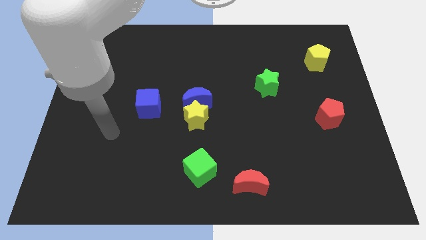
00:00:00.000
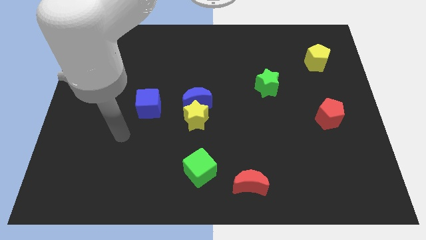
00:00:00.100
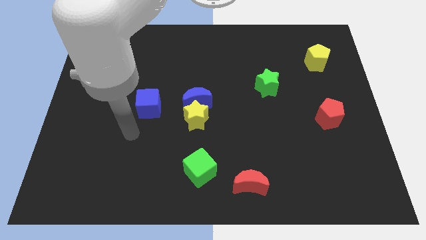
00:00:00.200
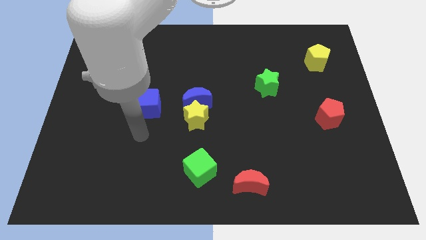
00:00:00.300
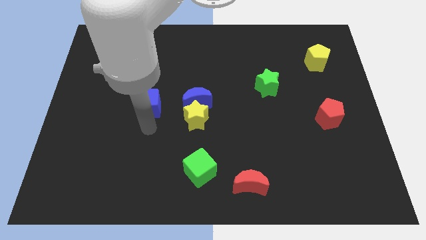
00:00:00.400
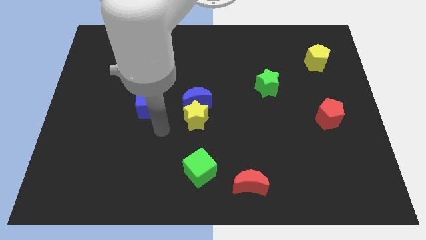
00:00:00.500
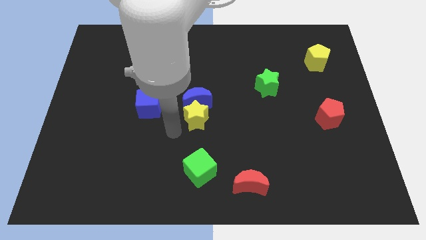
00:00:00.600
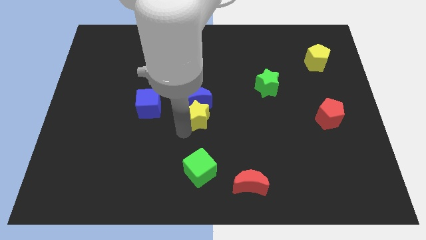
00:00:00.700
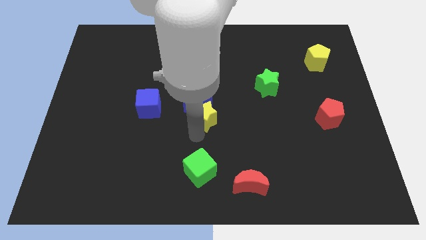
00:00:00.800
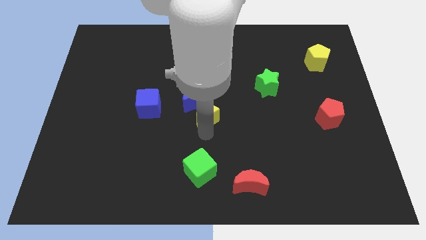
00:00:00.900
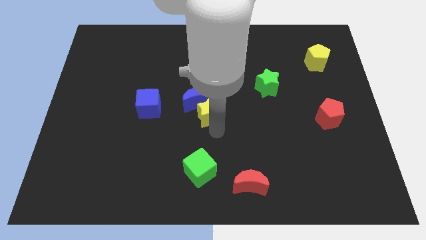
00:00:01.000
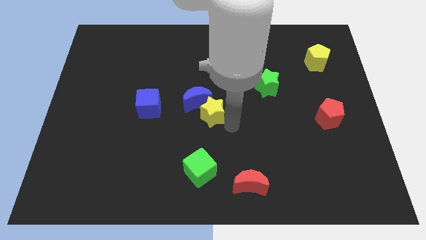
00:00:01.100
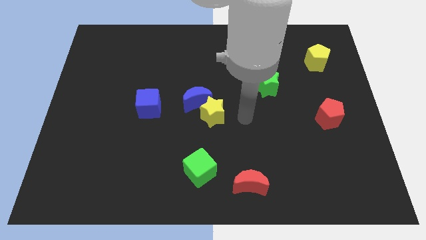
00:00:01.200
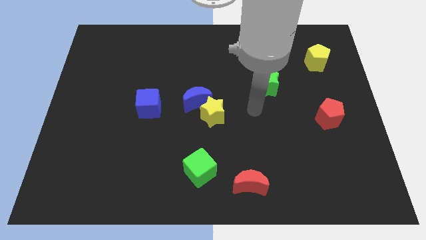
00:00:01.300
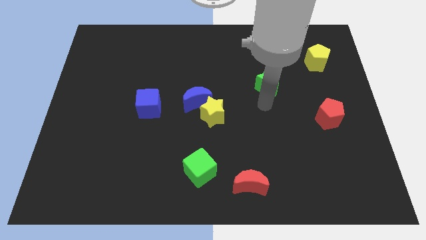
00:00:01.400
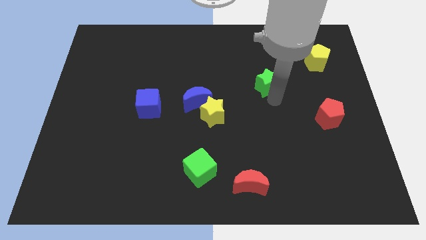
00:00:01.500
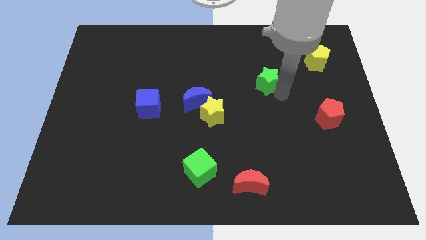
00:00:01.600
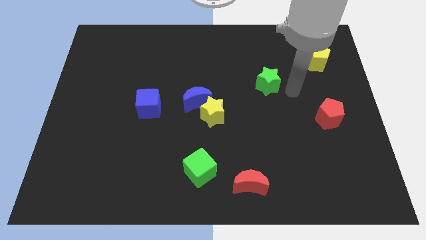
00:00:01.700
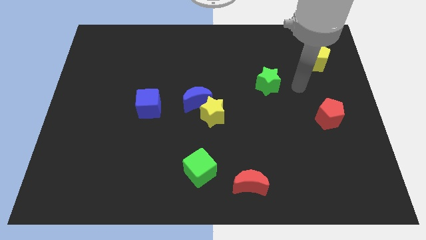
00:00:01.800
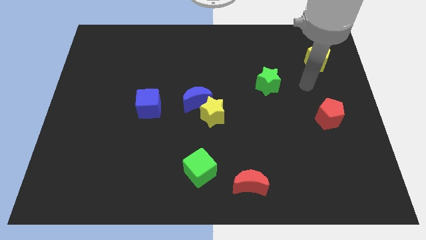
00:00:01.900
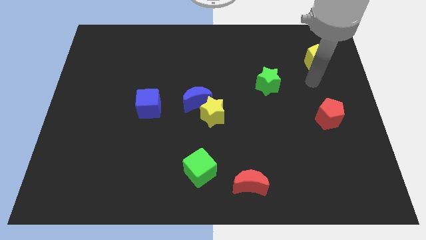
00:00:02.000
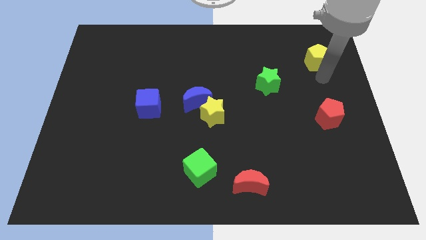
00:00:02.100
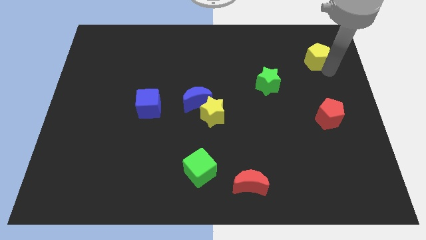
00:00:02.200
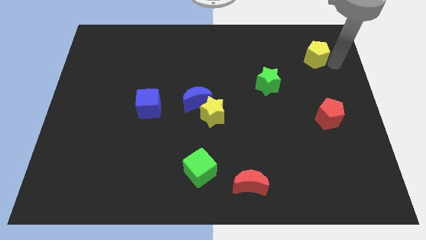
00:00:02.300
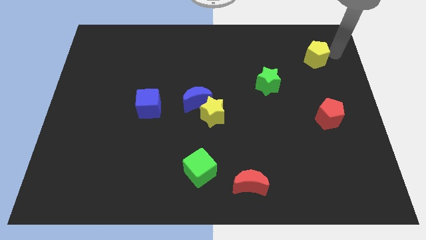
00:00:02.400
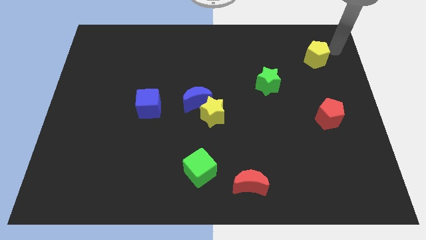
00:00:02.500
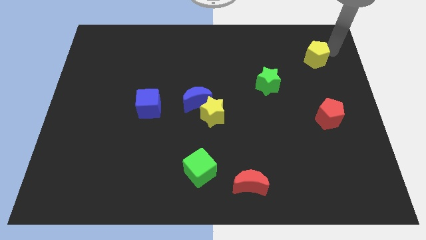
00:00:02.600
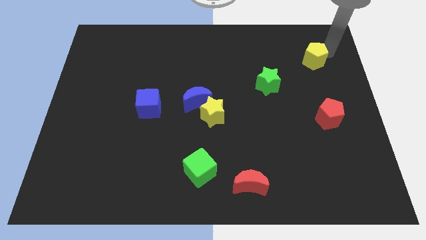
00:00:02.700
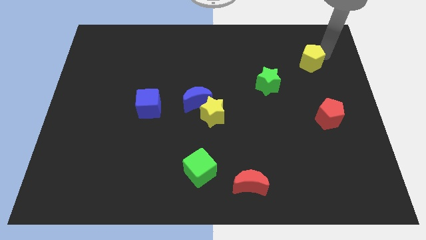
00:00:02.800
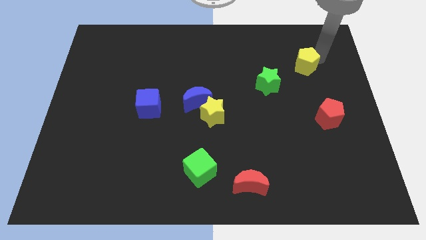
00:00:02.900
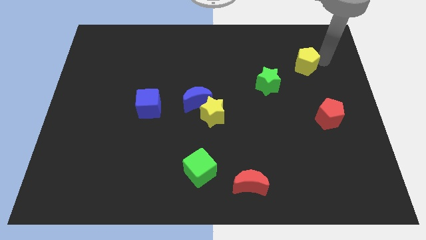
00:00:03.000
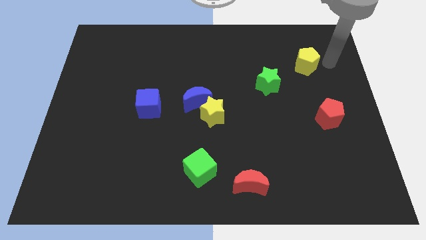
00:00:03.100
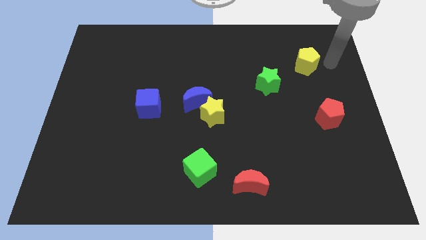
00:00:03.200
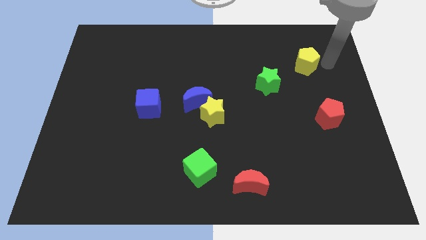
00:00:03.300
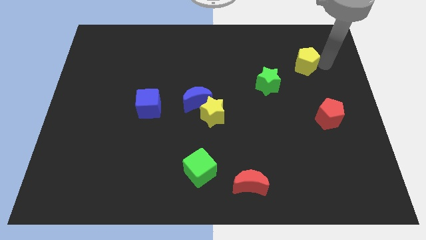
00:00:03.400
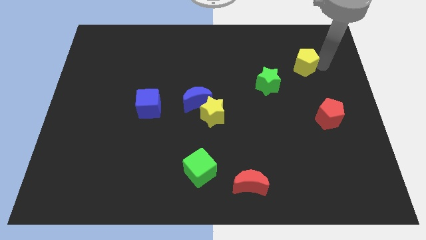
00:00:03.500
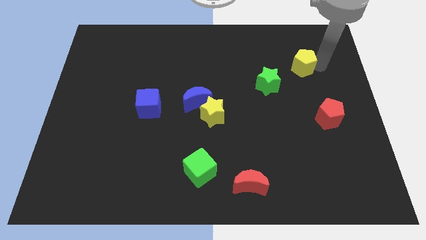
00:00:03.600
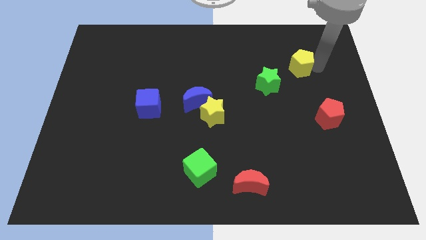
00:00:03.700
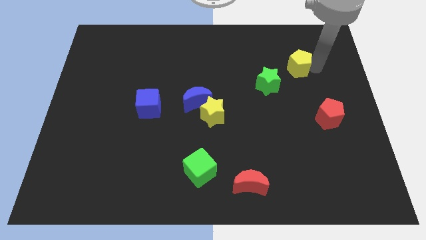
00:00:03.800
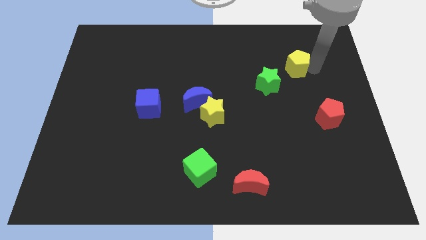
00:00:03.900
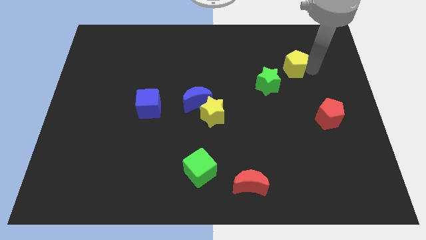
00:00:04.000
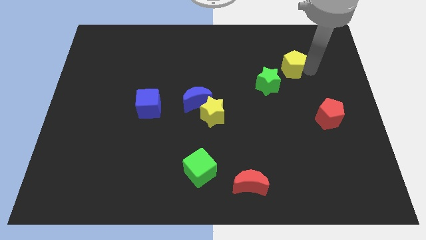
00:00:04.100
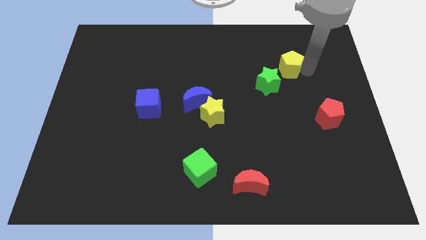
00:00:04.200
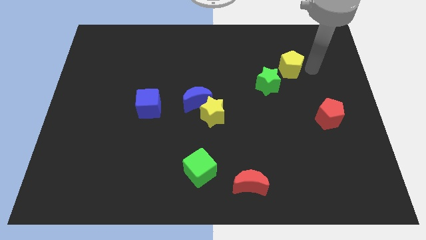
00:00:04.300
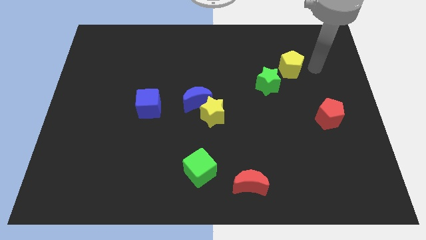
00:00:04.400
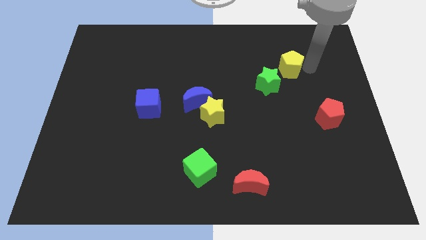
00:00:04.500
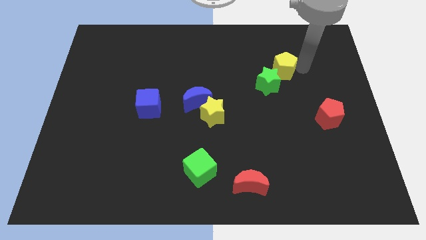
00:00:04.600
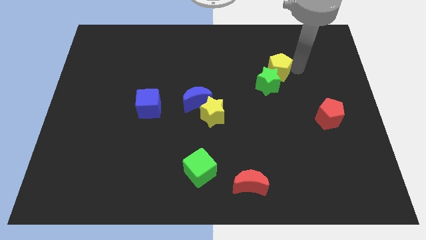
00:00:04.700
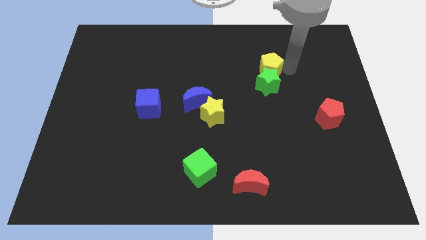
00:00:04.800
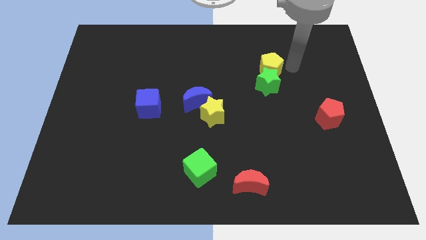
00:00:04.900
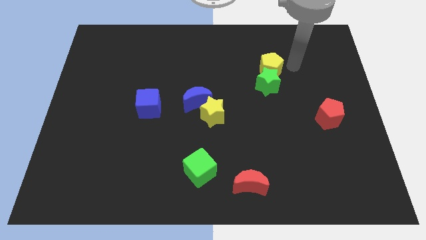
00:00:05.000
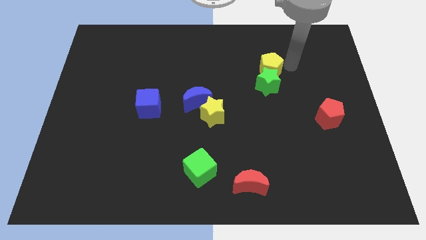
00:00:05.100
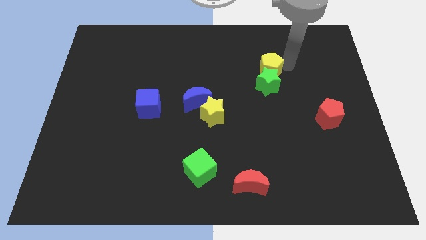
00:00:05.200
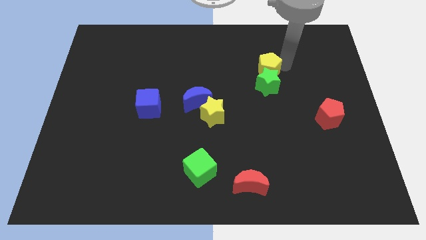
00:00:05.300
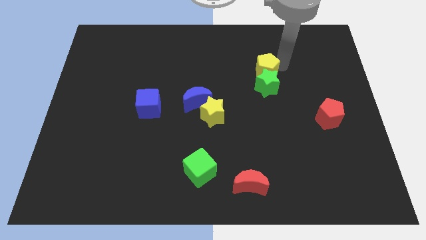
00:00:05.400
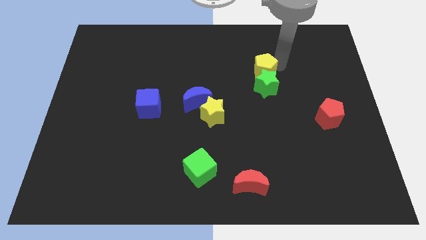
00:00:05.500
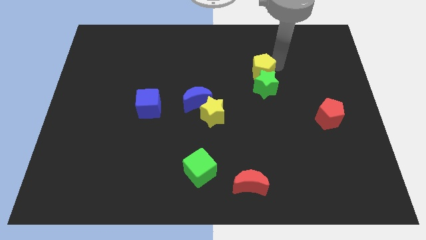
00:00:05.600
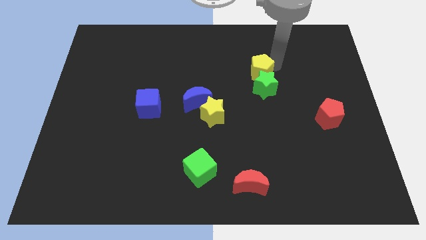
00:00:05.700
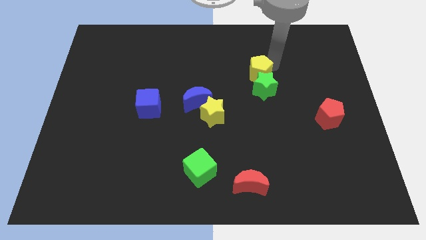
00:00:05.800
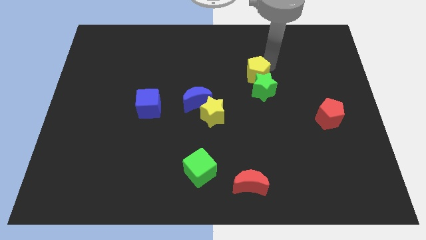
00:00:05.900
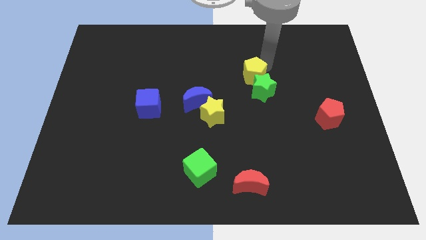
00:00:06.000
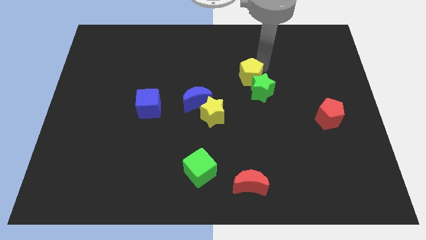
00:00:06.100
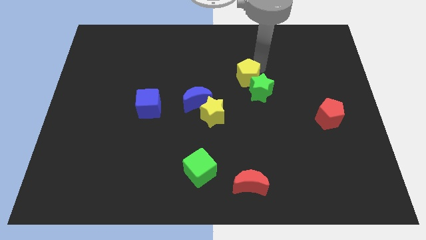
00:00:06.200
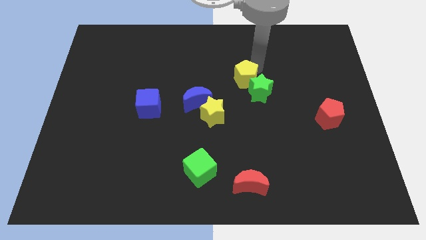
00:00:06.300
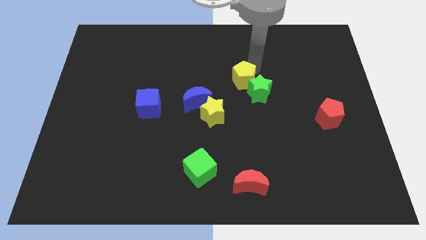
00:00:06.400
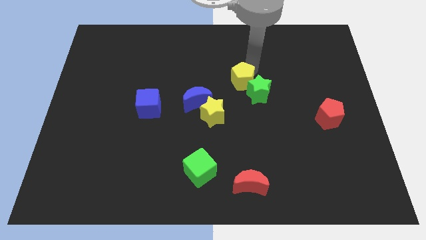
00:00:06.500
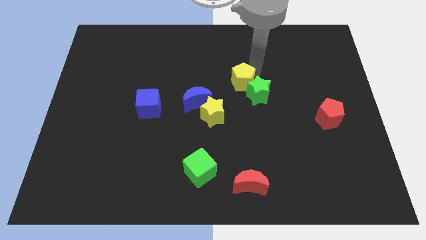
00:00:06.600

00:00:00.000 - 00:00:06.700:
slide the yellow pentagon to the top right side of the yellow star

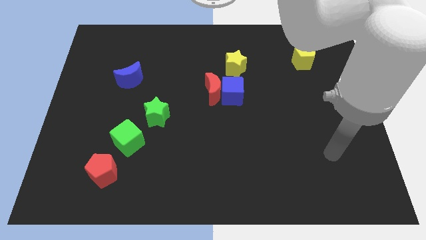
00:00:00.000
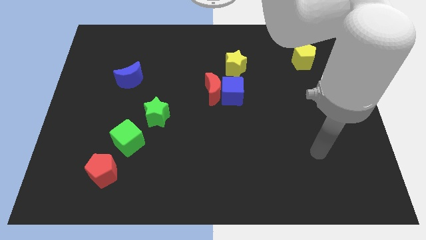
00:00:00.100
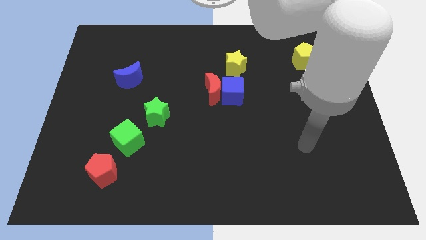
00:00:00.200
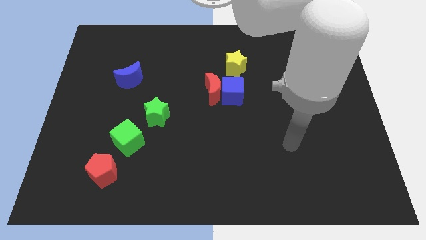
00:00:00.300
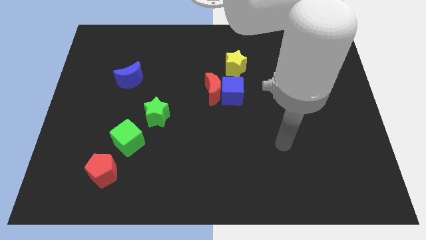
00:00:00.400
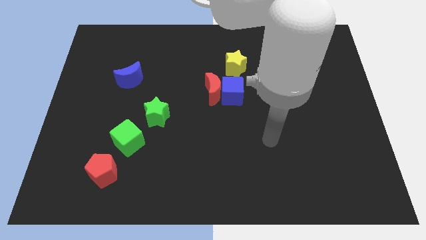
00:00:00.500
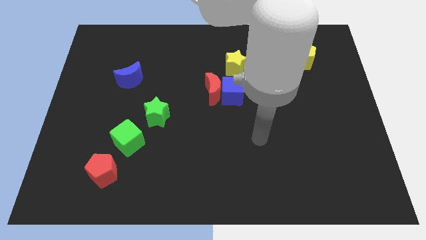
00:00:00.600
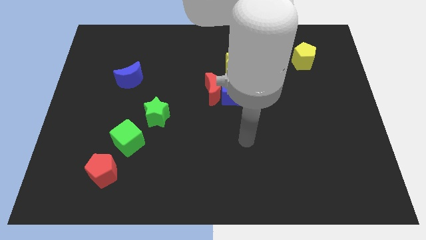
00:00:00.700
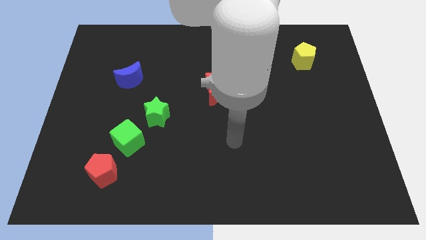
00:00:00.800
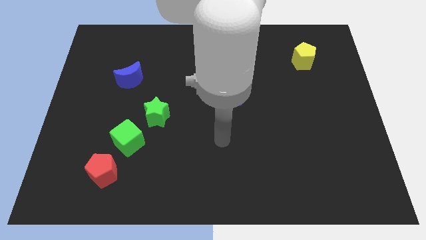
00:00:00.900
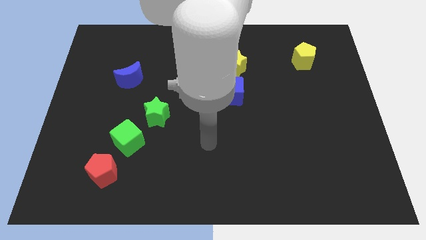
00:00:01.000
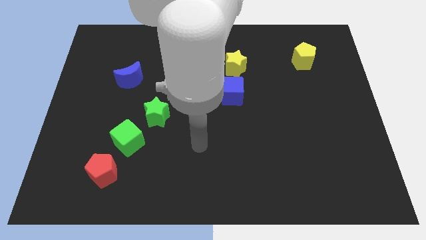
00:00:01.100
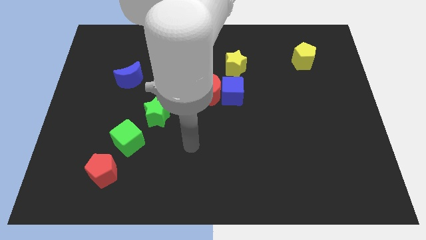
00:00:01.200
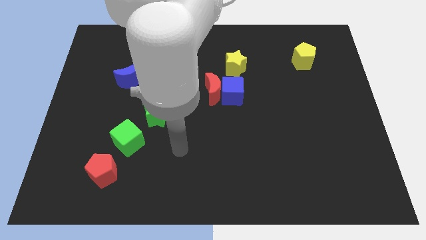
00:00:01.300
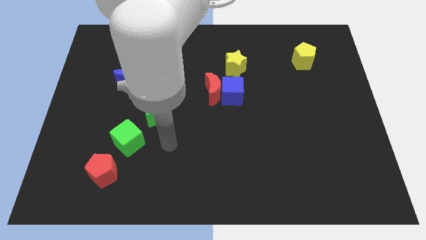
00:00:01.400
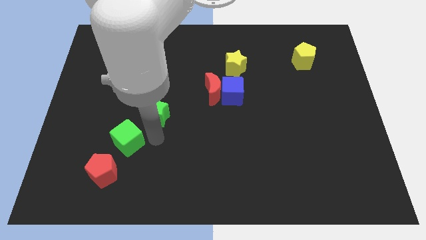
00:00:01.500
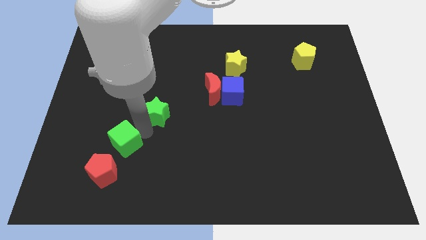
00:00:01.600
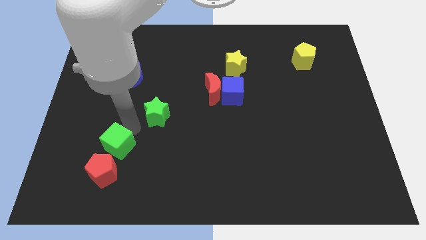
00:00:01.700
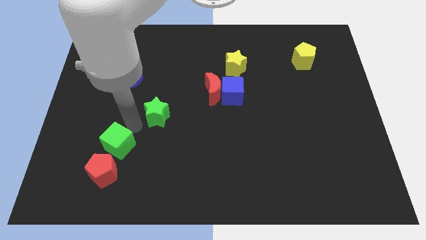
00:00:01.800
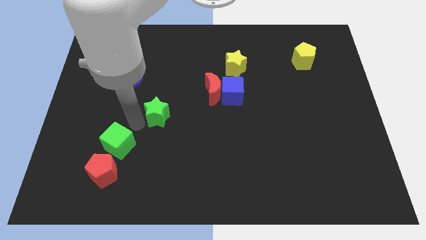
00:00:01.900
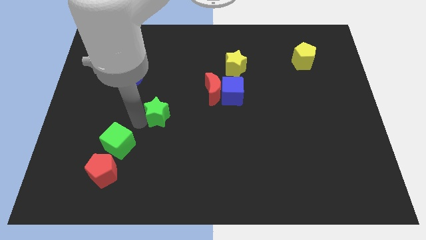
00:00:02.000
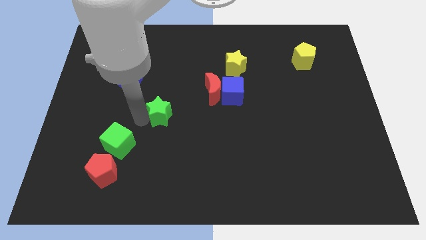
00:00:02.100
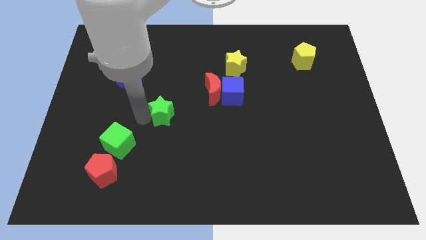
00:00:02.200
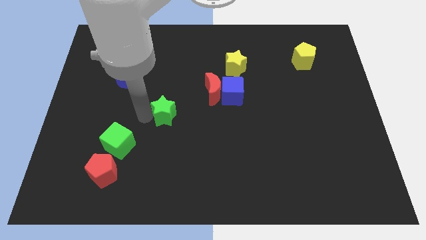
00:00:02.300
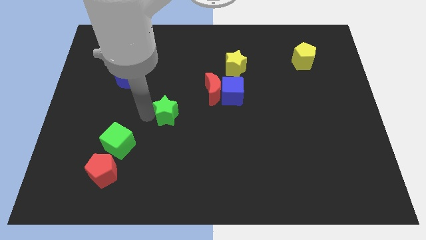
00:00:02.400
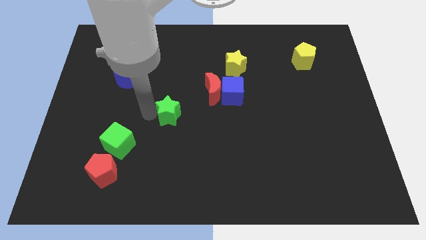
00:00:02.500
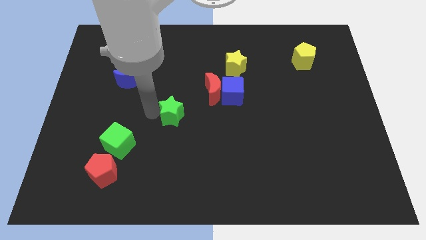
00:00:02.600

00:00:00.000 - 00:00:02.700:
push the green star to the bottom left of the red moon
